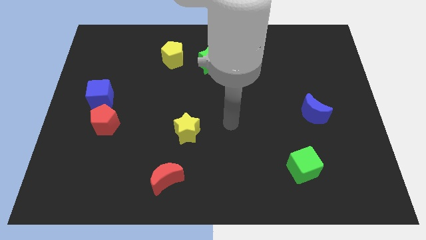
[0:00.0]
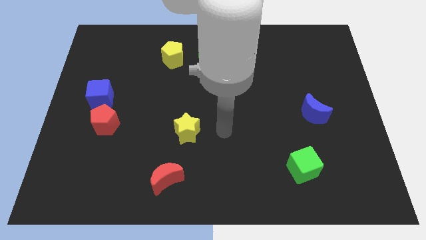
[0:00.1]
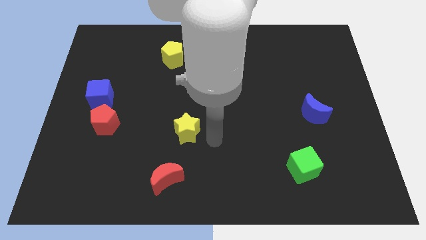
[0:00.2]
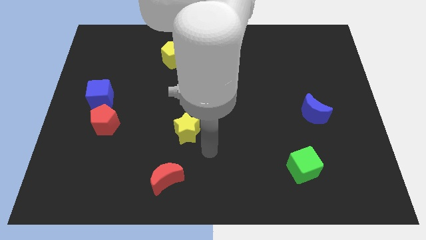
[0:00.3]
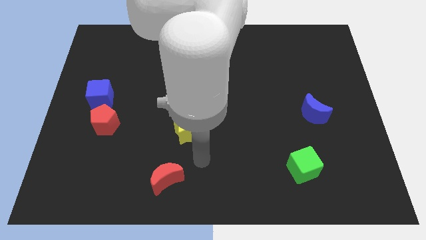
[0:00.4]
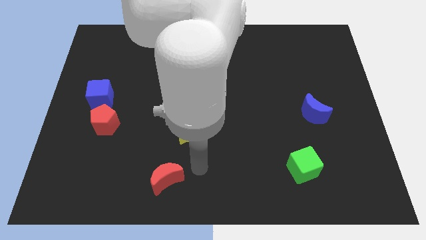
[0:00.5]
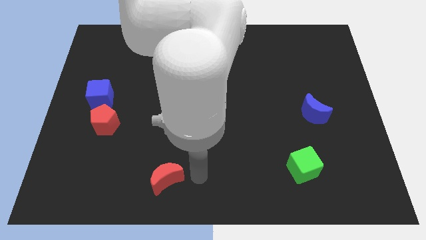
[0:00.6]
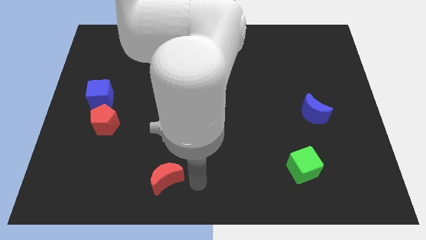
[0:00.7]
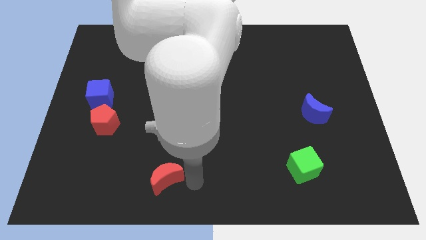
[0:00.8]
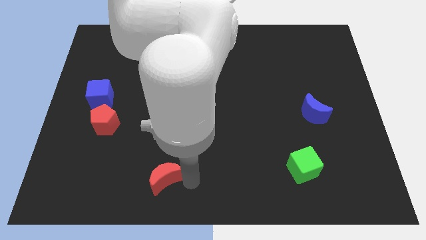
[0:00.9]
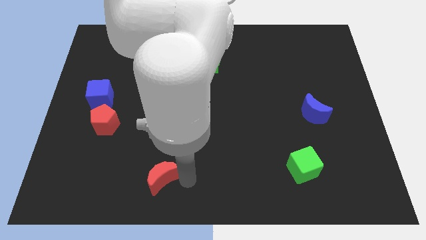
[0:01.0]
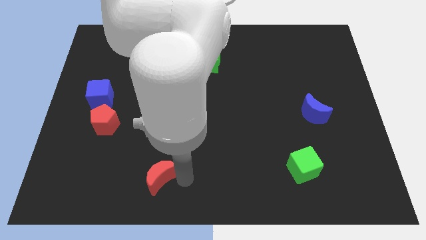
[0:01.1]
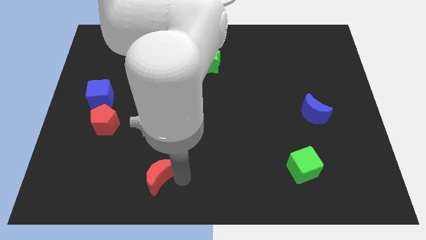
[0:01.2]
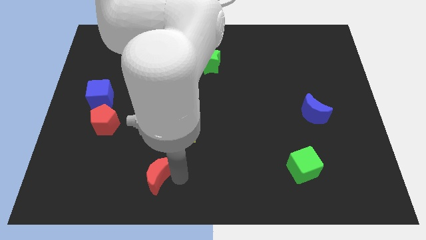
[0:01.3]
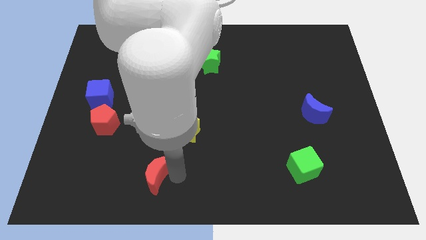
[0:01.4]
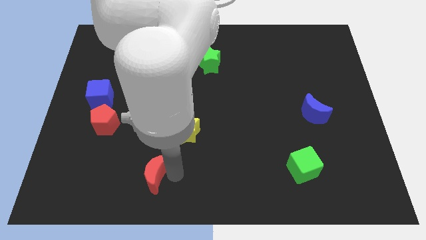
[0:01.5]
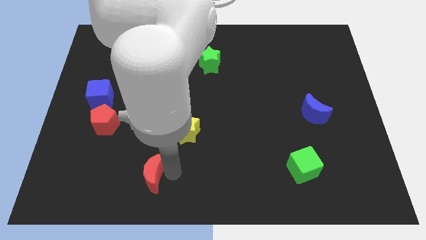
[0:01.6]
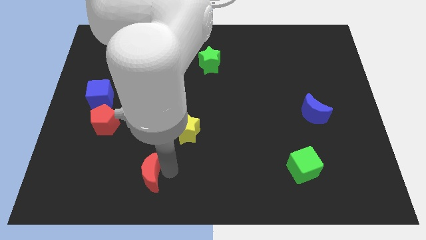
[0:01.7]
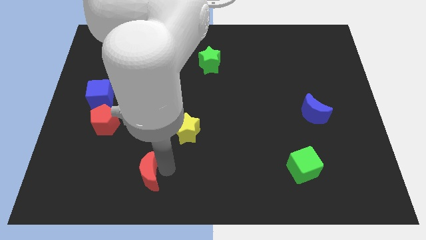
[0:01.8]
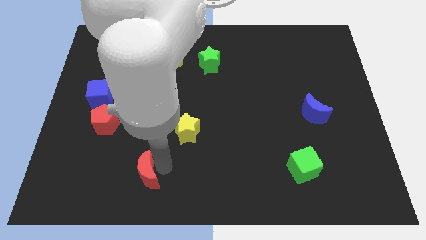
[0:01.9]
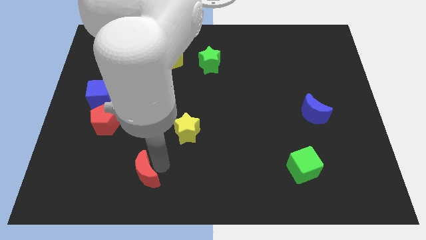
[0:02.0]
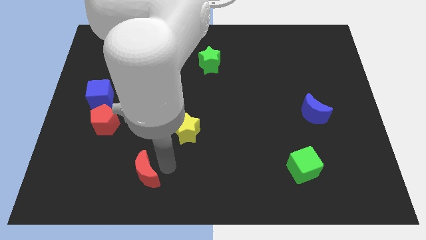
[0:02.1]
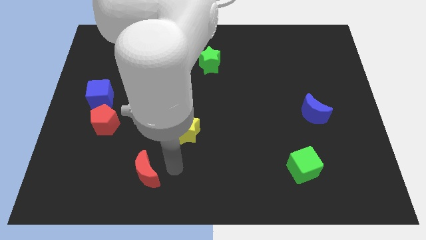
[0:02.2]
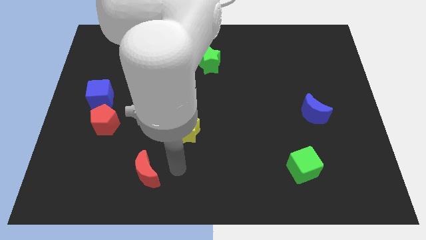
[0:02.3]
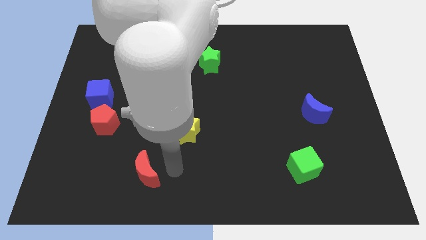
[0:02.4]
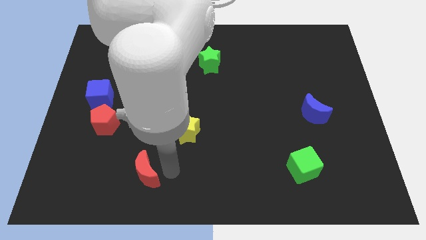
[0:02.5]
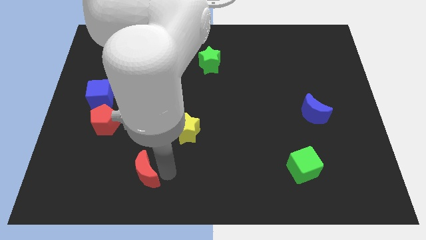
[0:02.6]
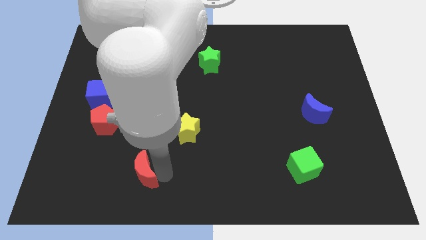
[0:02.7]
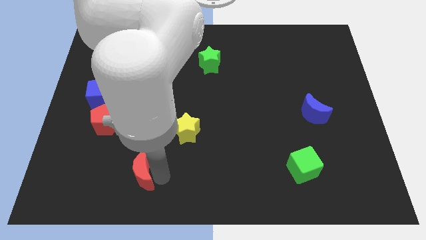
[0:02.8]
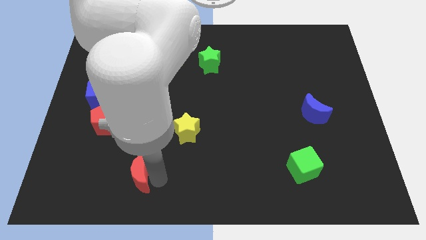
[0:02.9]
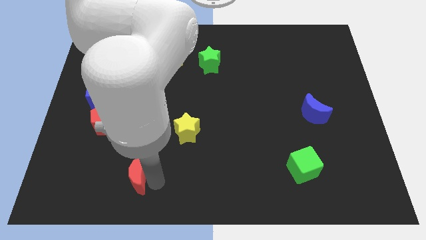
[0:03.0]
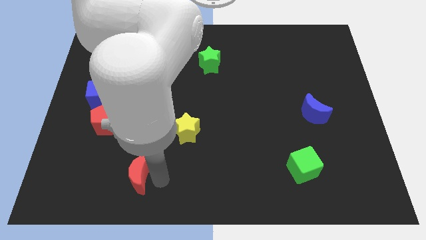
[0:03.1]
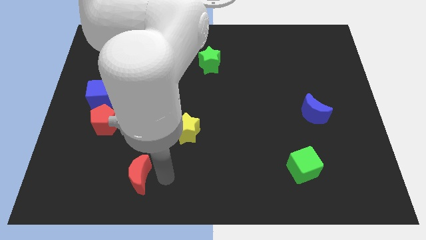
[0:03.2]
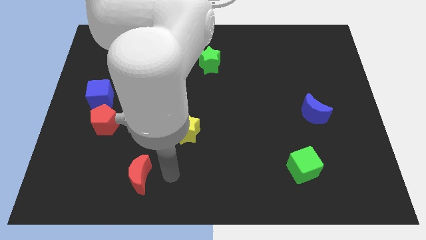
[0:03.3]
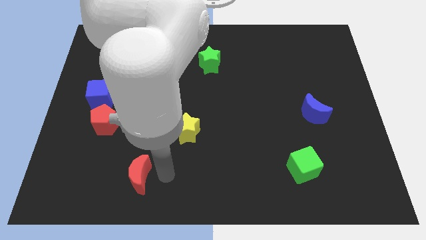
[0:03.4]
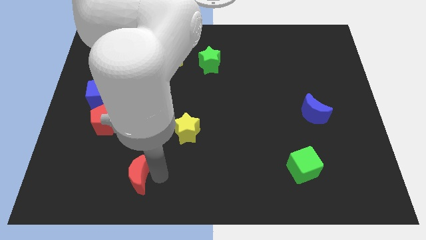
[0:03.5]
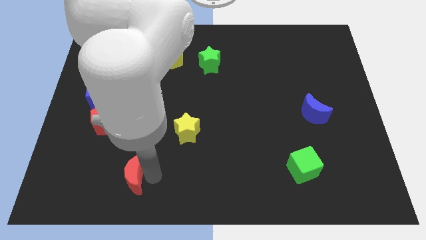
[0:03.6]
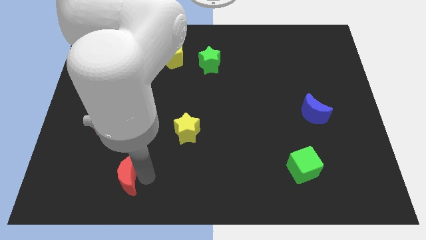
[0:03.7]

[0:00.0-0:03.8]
move the red moon left a little

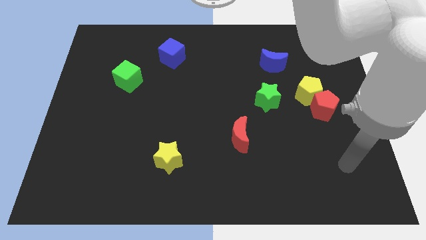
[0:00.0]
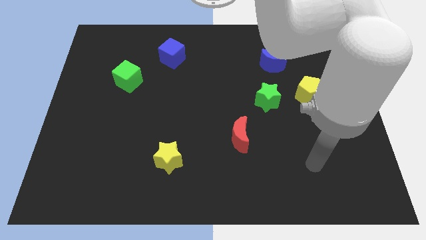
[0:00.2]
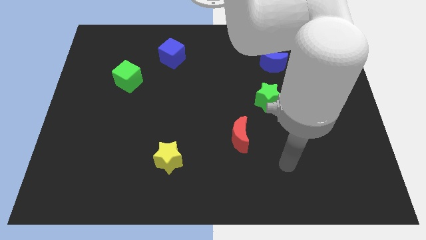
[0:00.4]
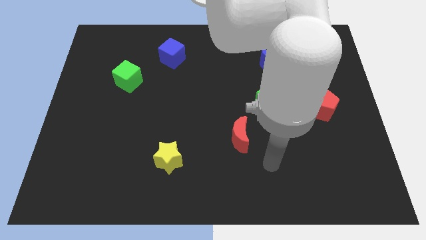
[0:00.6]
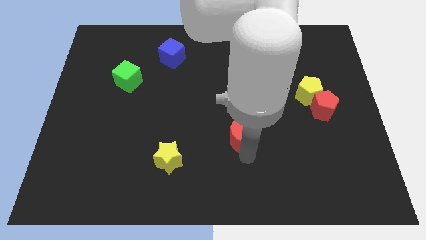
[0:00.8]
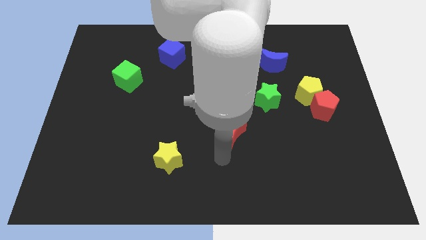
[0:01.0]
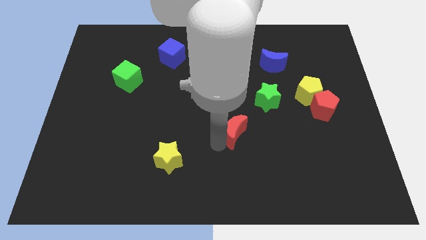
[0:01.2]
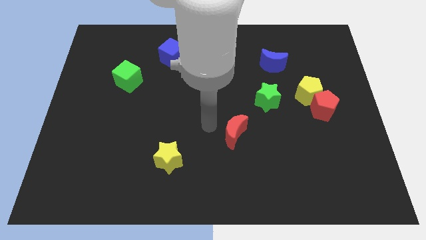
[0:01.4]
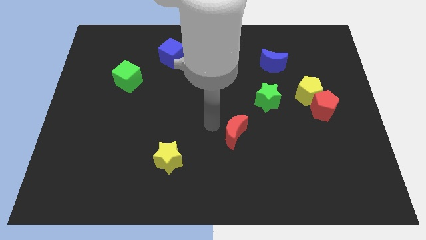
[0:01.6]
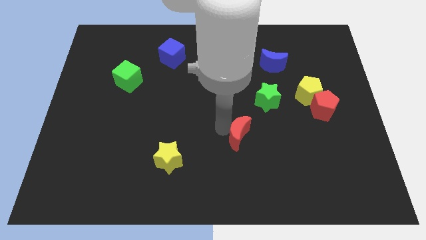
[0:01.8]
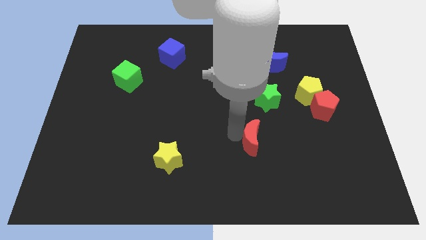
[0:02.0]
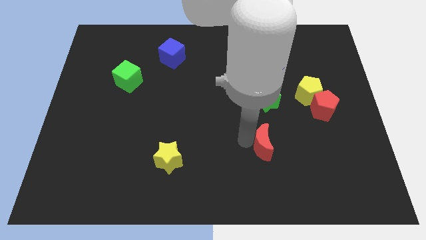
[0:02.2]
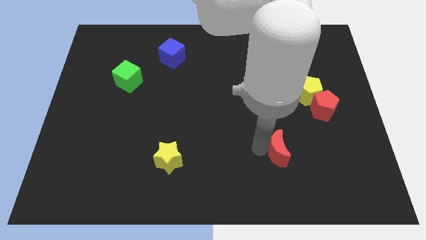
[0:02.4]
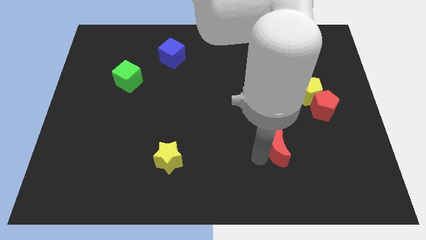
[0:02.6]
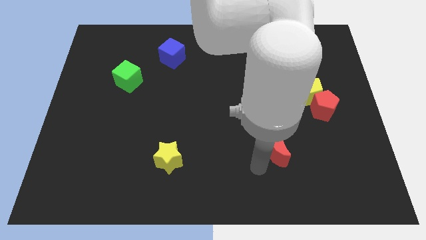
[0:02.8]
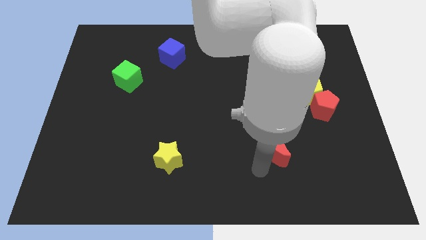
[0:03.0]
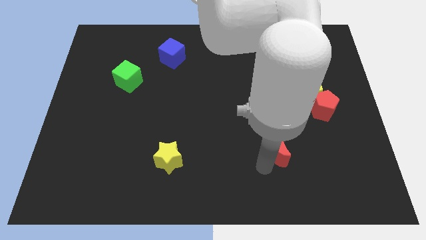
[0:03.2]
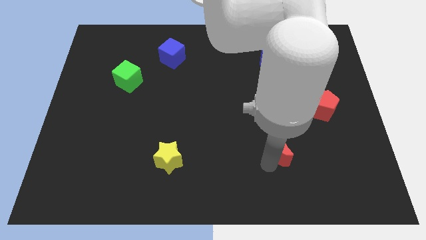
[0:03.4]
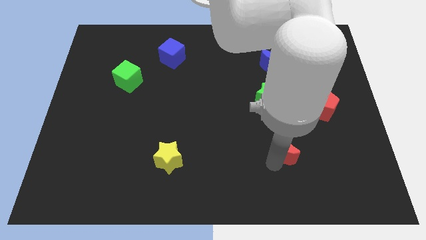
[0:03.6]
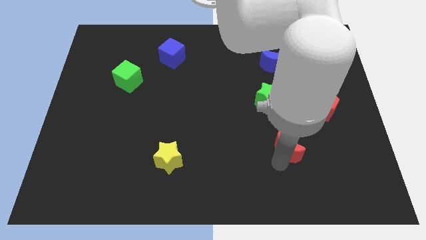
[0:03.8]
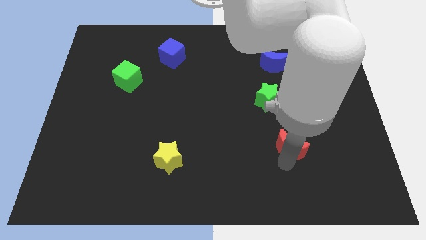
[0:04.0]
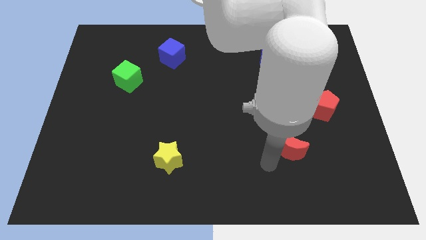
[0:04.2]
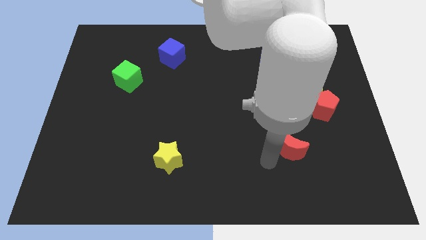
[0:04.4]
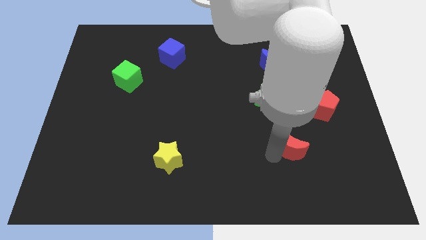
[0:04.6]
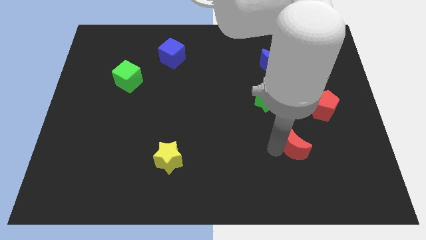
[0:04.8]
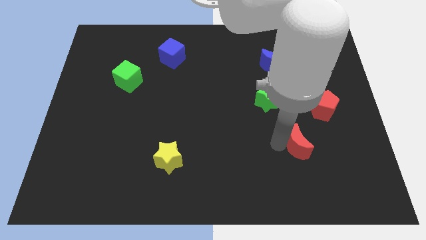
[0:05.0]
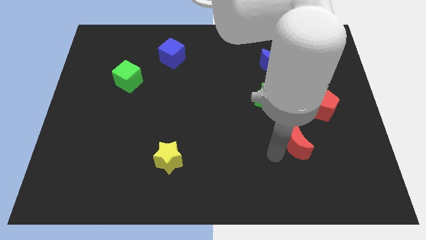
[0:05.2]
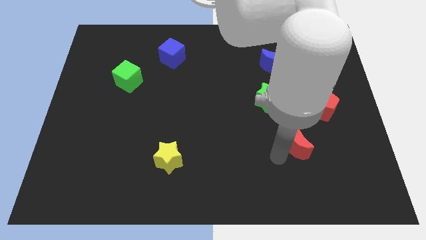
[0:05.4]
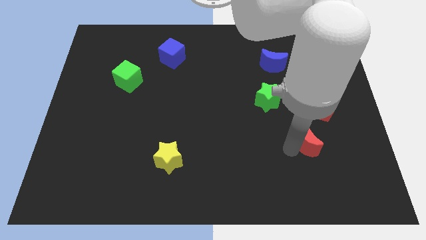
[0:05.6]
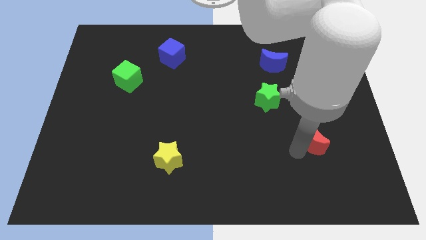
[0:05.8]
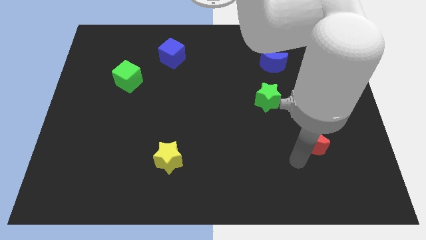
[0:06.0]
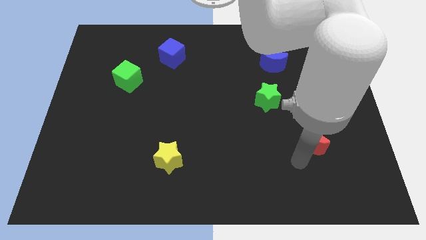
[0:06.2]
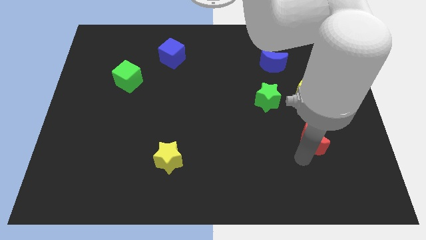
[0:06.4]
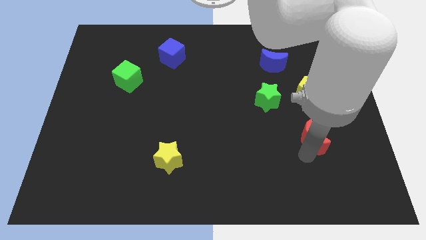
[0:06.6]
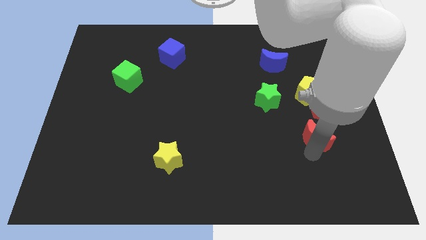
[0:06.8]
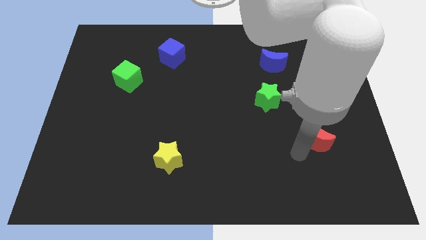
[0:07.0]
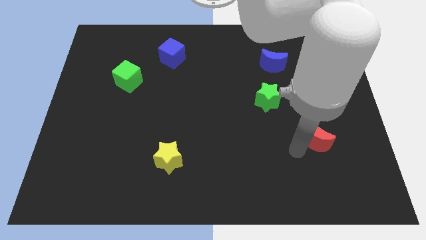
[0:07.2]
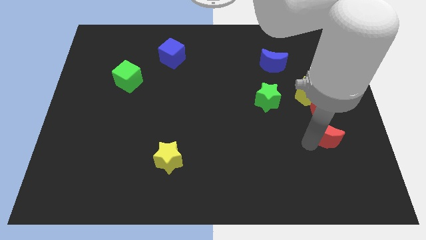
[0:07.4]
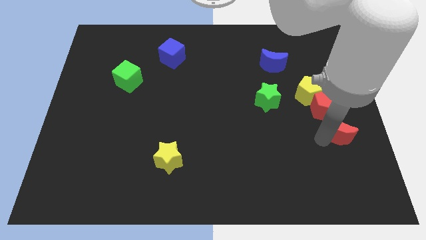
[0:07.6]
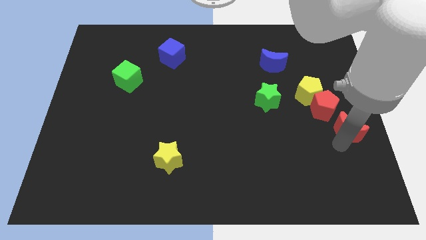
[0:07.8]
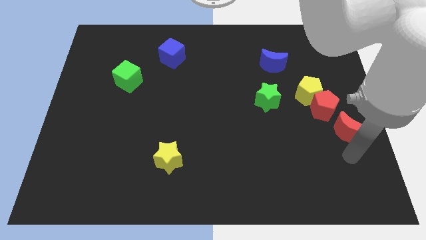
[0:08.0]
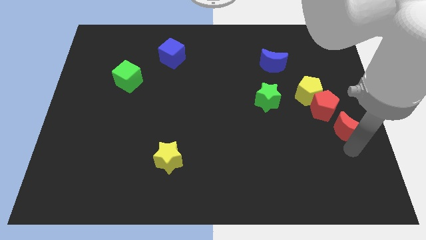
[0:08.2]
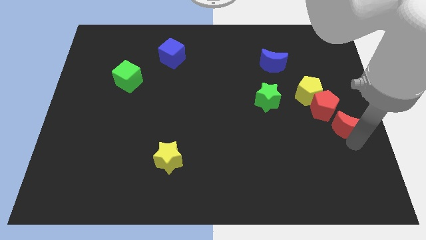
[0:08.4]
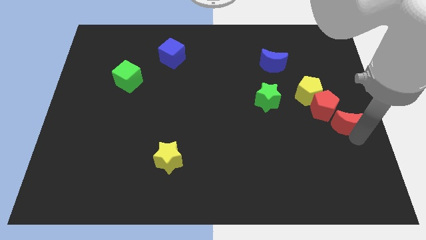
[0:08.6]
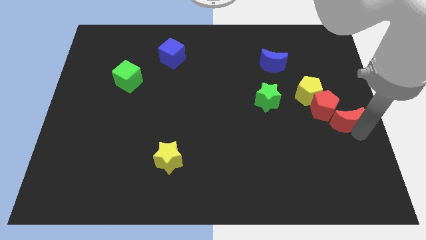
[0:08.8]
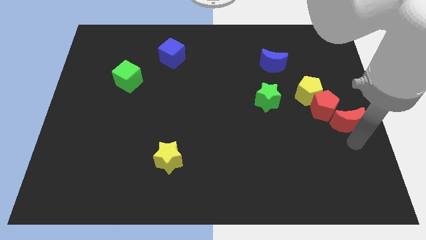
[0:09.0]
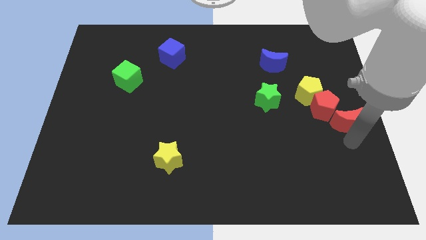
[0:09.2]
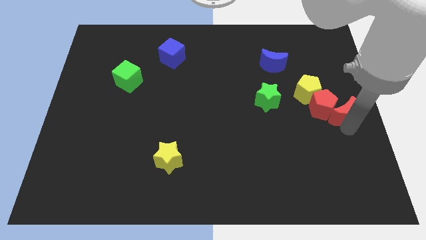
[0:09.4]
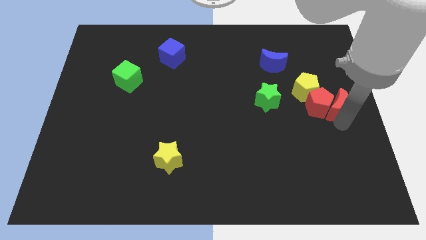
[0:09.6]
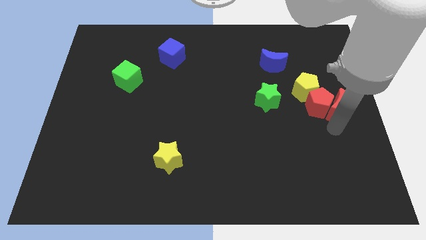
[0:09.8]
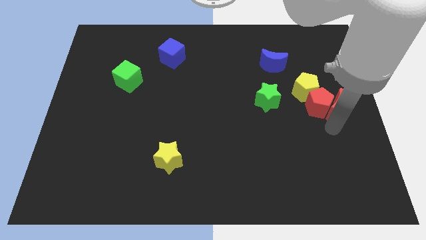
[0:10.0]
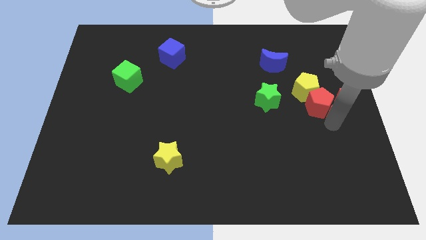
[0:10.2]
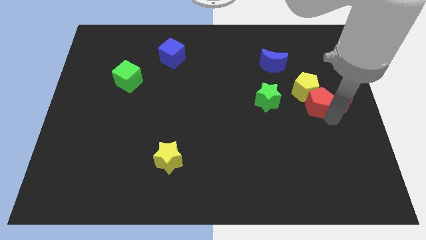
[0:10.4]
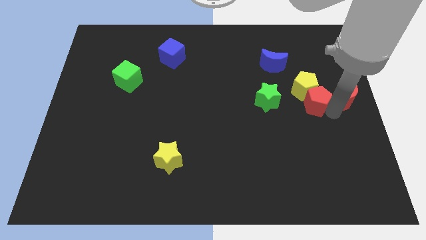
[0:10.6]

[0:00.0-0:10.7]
push the red moon diagonally upwards and right
